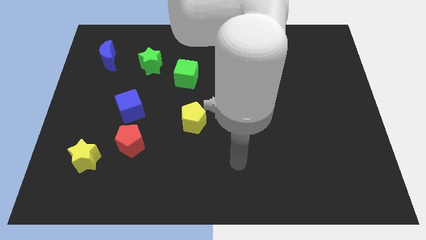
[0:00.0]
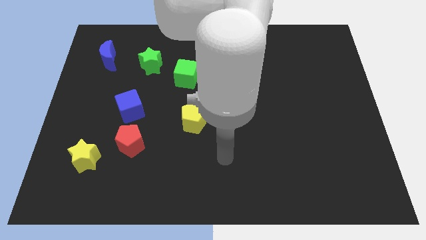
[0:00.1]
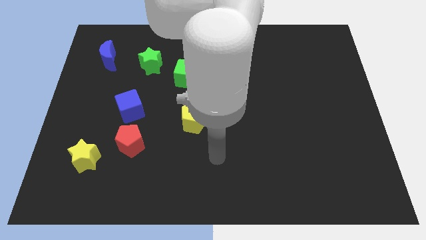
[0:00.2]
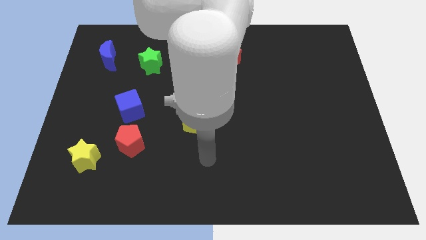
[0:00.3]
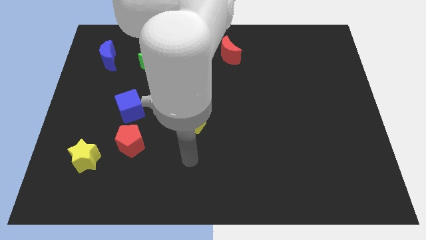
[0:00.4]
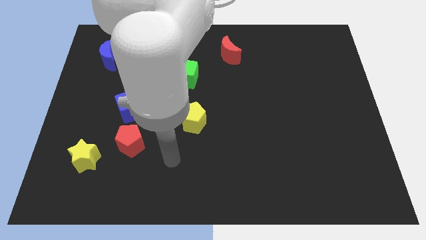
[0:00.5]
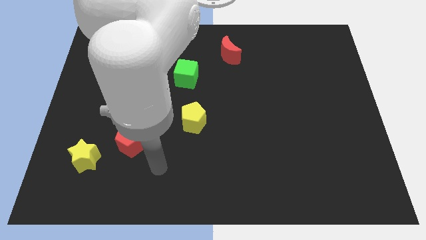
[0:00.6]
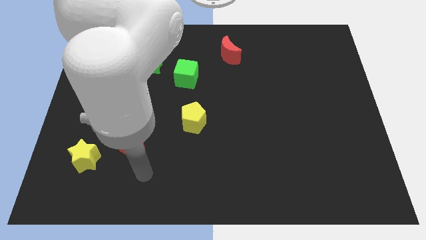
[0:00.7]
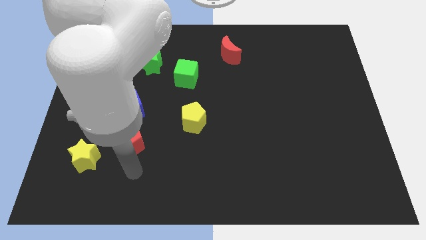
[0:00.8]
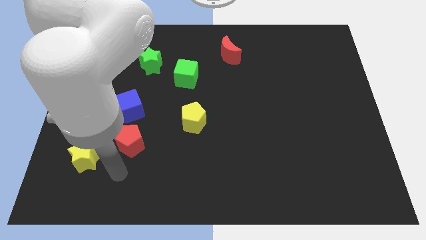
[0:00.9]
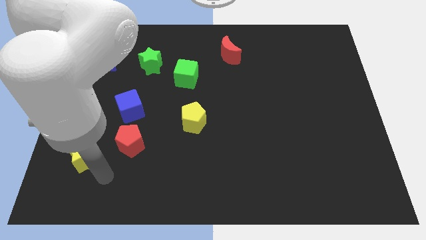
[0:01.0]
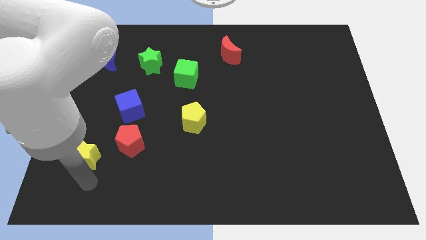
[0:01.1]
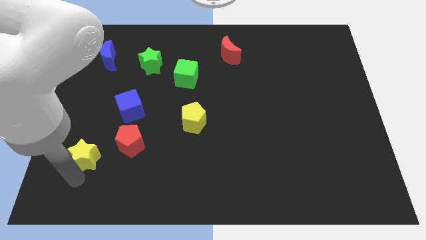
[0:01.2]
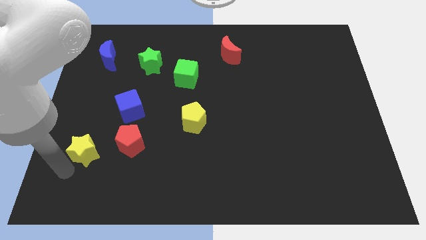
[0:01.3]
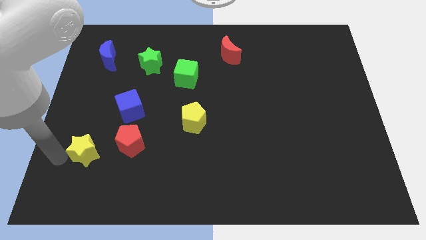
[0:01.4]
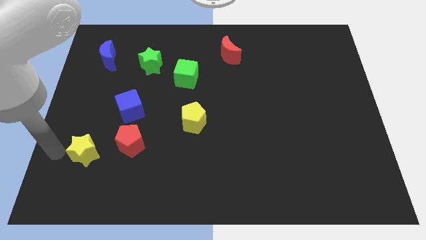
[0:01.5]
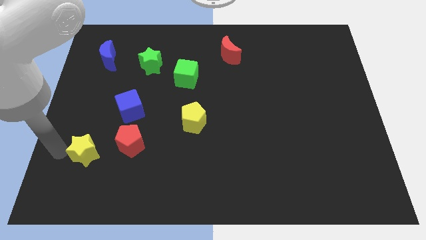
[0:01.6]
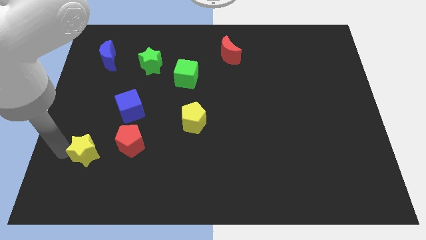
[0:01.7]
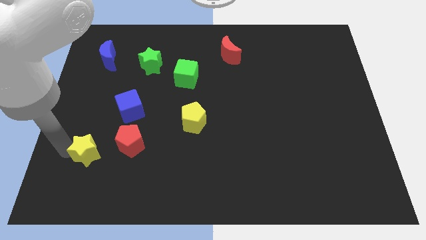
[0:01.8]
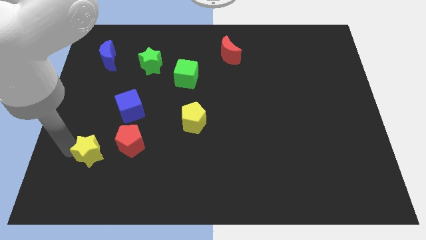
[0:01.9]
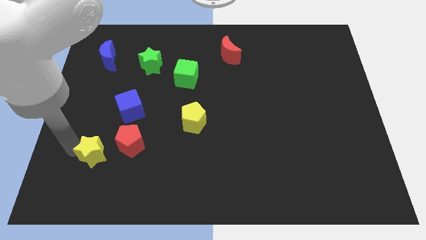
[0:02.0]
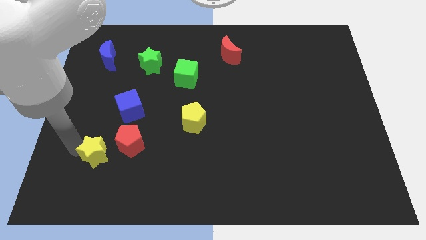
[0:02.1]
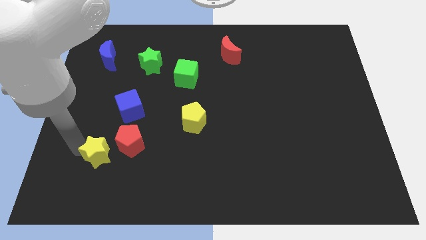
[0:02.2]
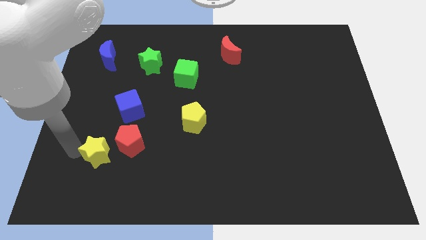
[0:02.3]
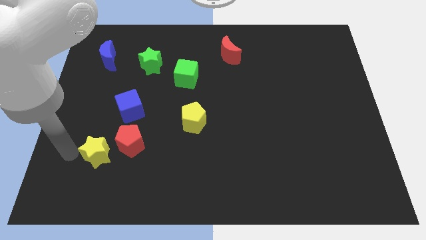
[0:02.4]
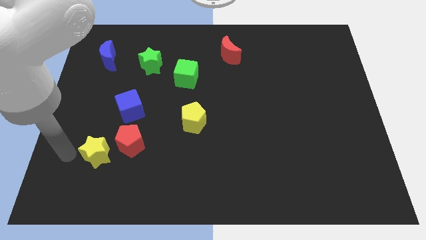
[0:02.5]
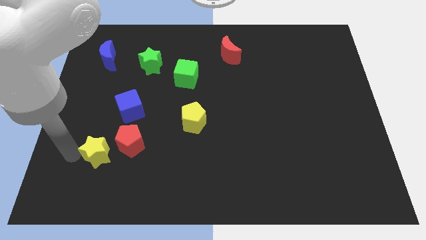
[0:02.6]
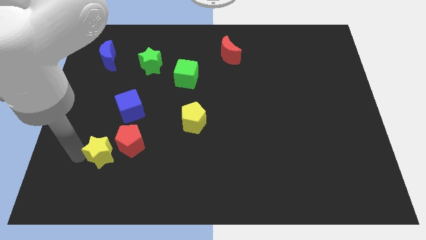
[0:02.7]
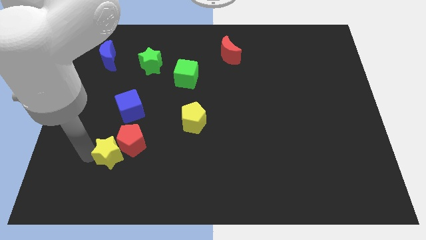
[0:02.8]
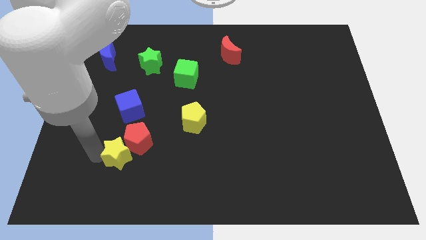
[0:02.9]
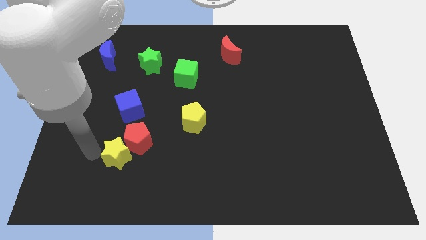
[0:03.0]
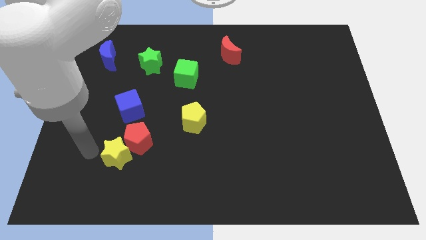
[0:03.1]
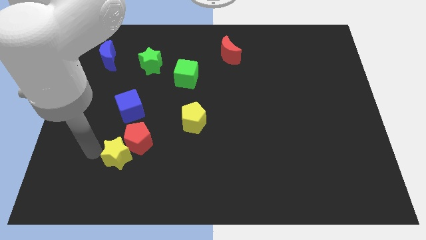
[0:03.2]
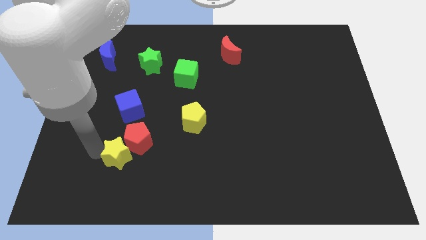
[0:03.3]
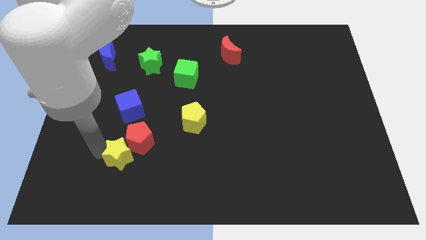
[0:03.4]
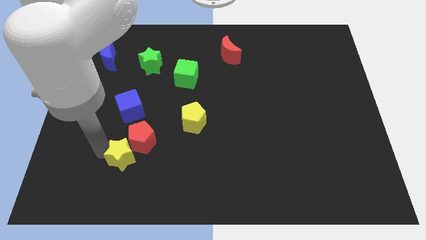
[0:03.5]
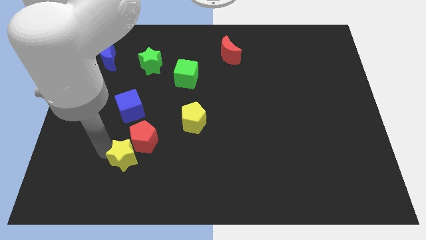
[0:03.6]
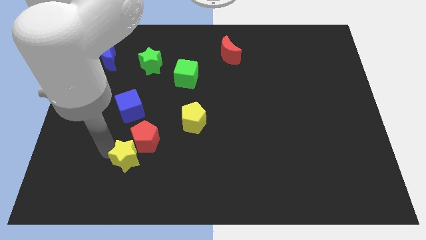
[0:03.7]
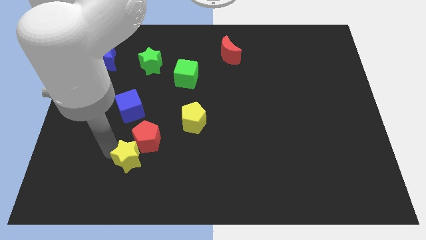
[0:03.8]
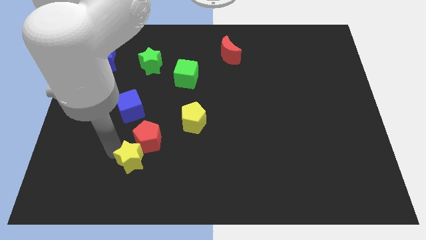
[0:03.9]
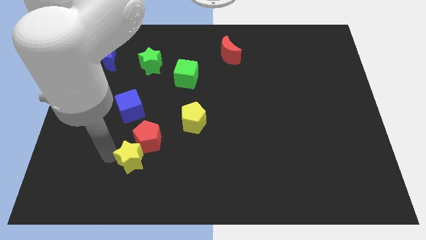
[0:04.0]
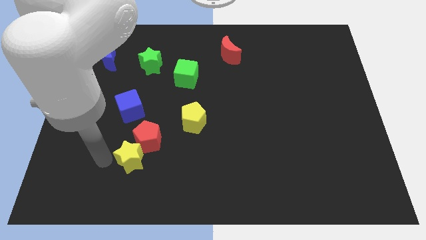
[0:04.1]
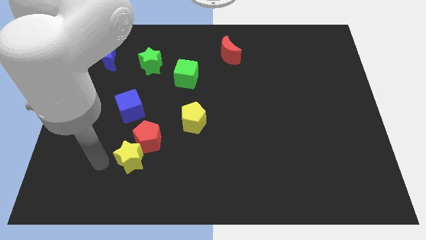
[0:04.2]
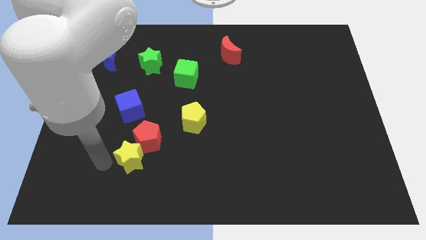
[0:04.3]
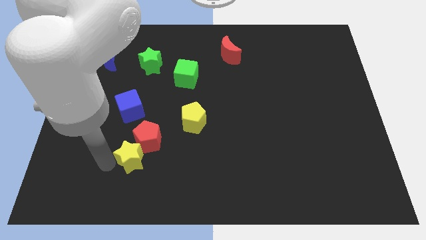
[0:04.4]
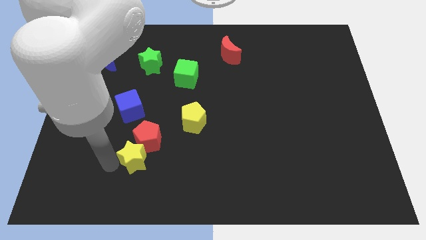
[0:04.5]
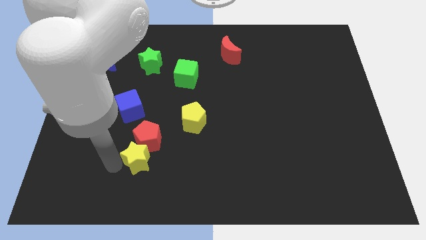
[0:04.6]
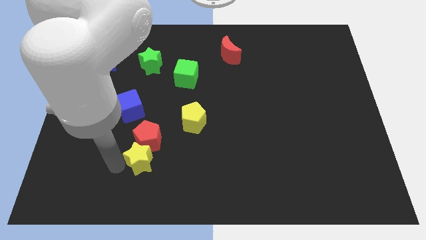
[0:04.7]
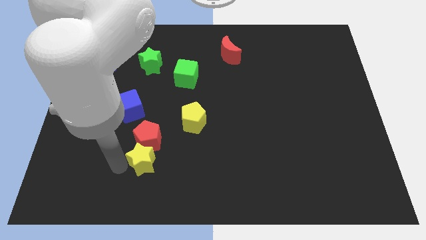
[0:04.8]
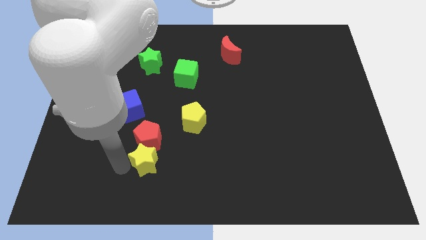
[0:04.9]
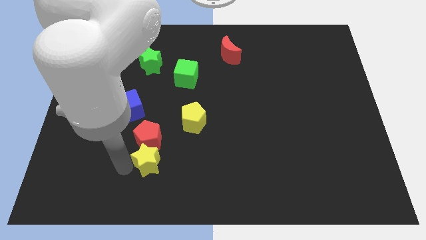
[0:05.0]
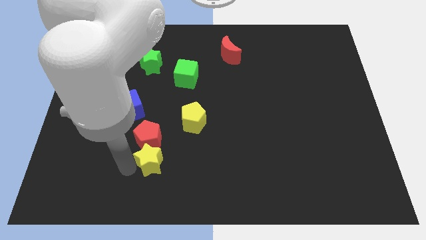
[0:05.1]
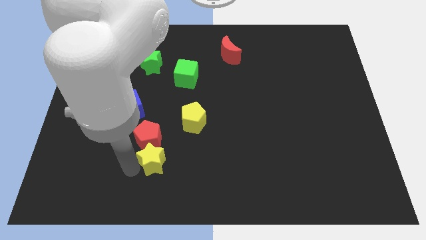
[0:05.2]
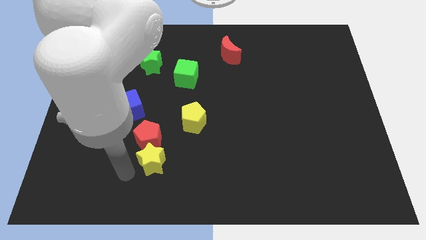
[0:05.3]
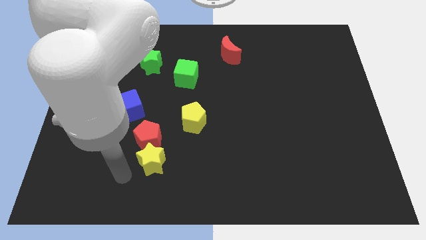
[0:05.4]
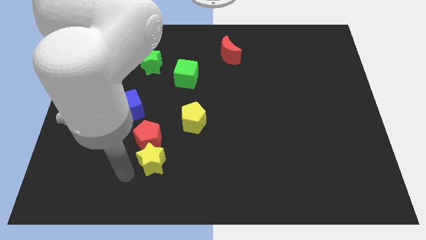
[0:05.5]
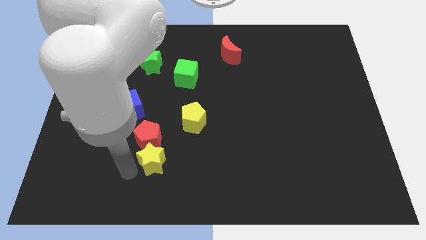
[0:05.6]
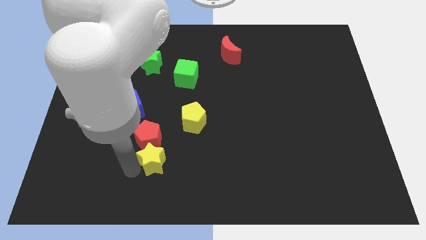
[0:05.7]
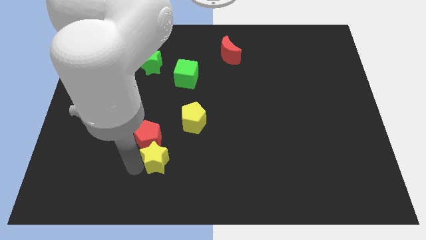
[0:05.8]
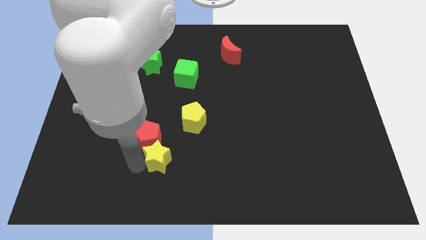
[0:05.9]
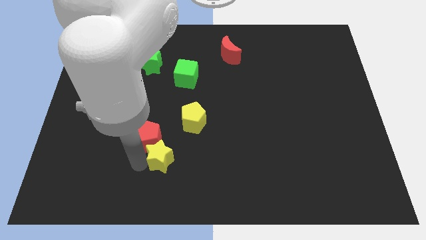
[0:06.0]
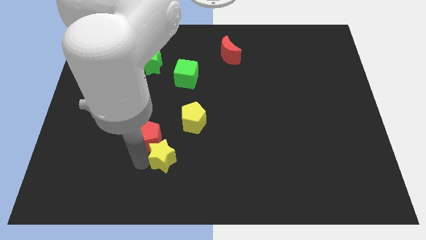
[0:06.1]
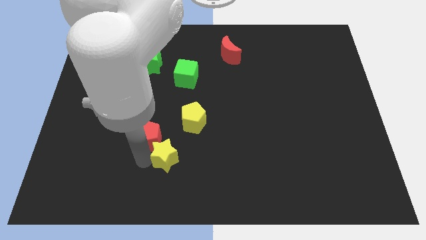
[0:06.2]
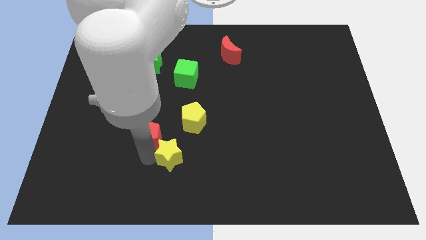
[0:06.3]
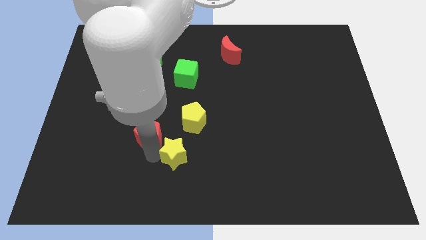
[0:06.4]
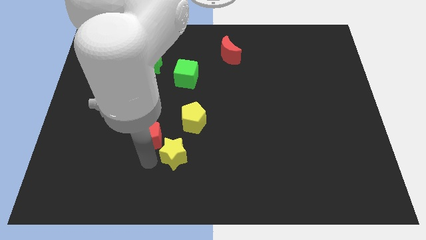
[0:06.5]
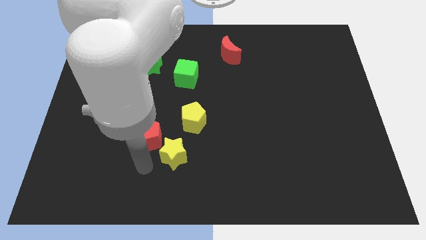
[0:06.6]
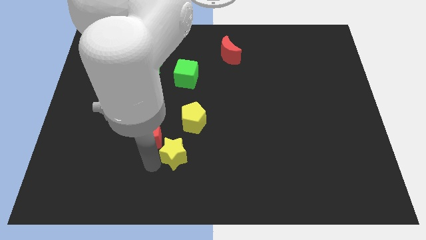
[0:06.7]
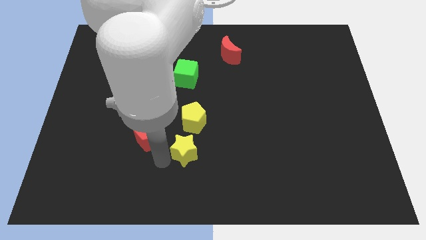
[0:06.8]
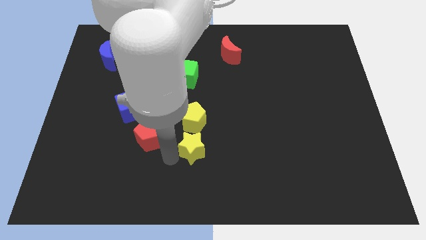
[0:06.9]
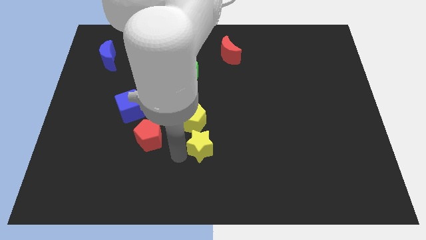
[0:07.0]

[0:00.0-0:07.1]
slide the yellow star diagonally down and to the right of the yellow pentagon
